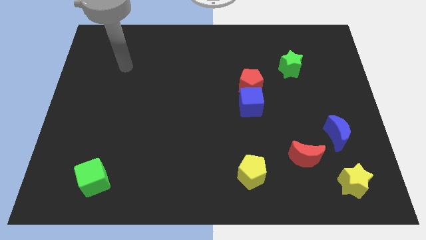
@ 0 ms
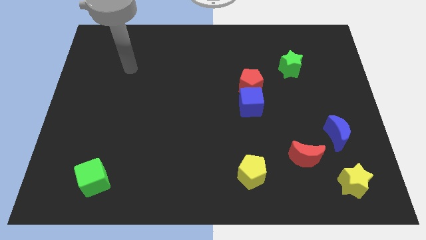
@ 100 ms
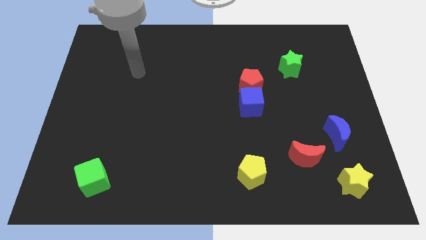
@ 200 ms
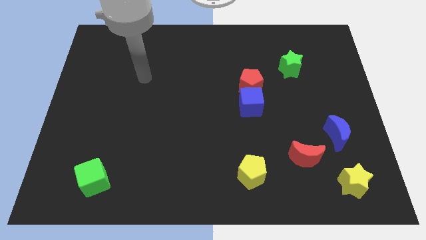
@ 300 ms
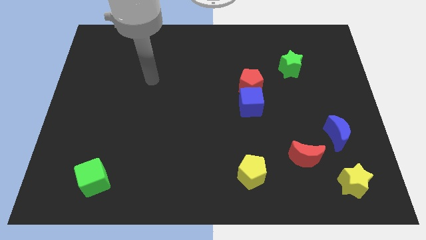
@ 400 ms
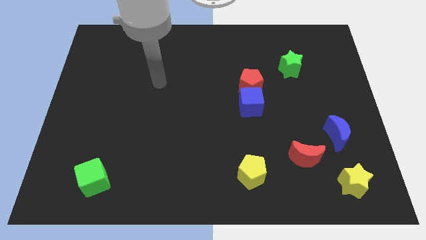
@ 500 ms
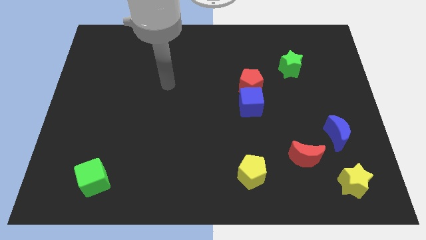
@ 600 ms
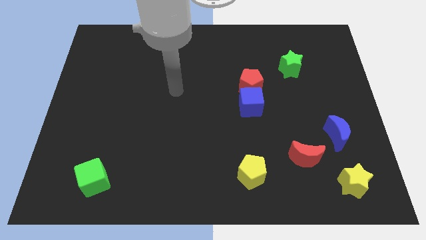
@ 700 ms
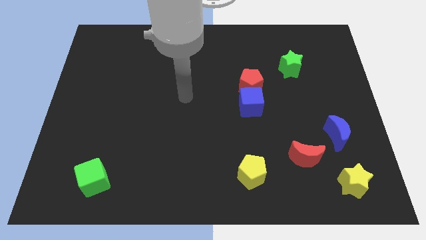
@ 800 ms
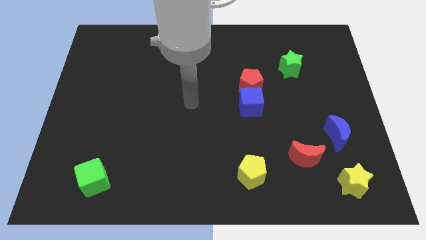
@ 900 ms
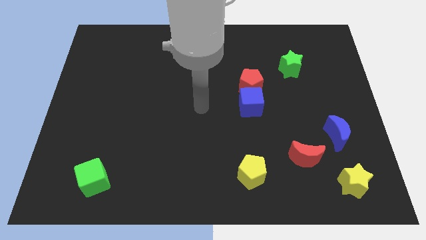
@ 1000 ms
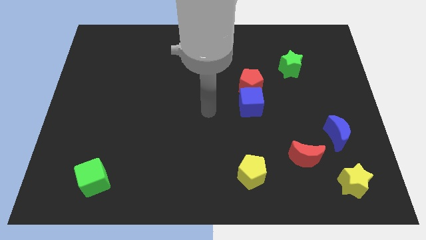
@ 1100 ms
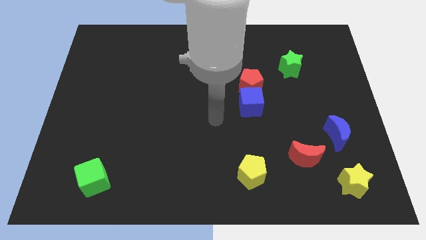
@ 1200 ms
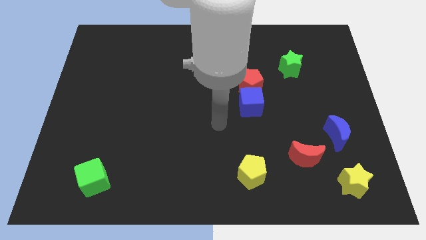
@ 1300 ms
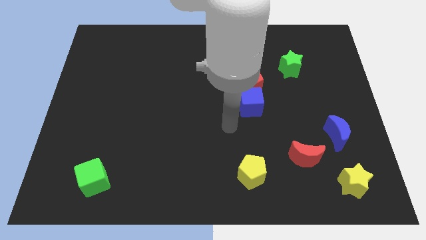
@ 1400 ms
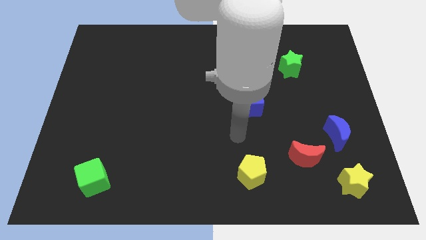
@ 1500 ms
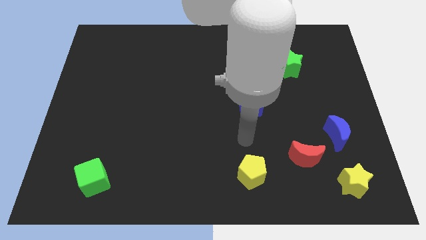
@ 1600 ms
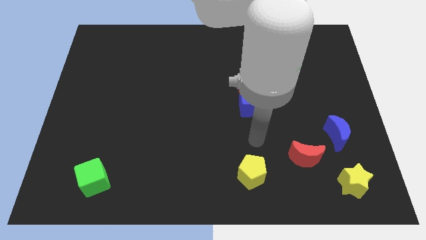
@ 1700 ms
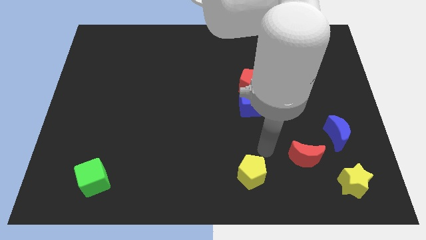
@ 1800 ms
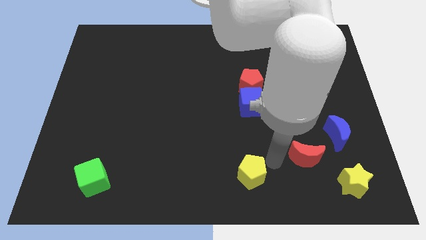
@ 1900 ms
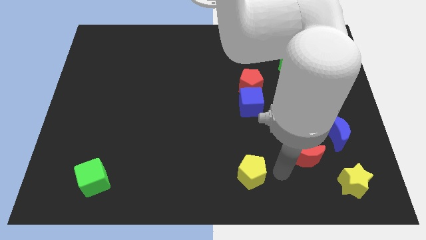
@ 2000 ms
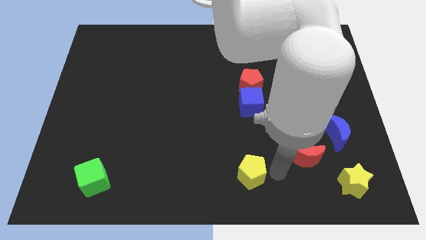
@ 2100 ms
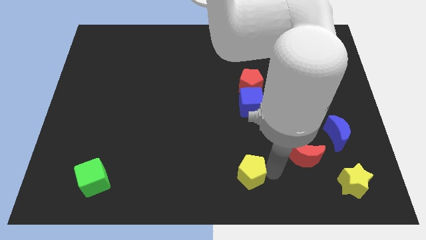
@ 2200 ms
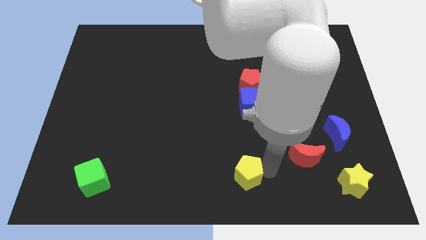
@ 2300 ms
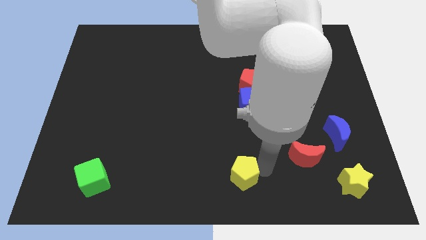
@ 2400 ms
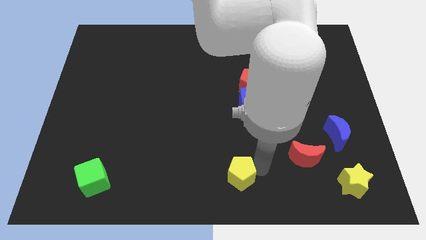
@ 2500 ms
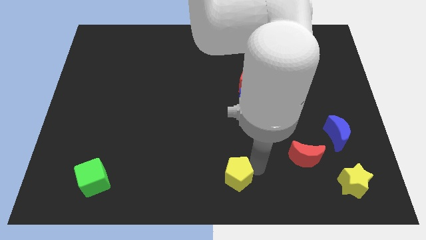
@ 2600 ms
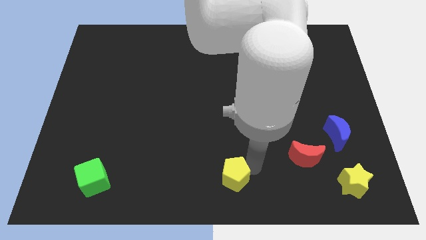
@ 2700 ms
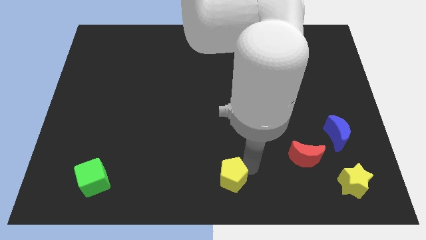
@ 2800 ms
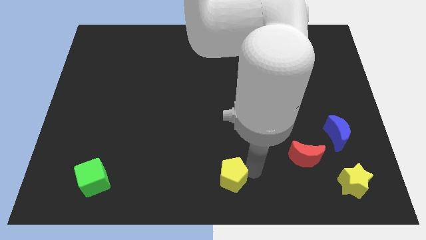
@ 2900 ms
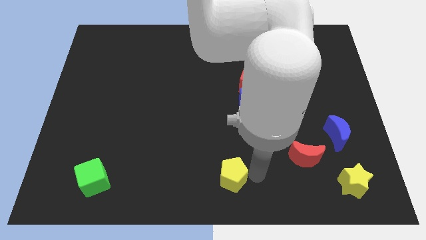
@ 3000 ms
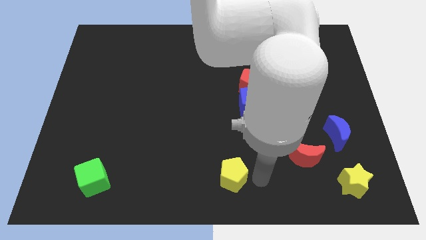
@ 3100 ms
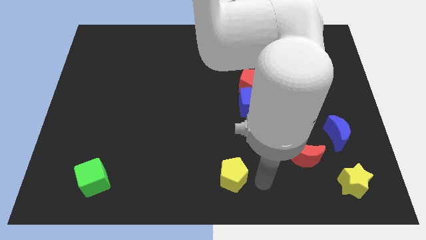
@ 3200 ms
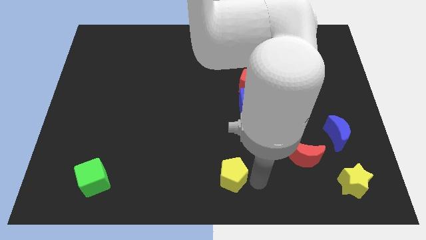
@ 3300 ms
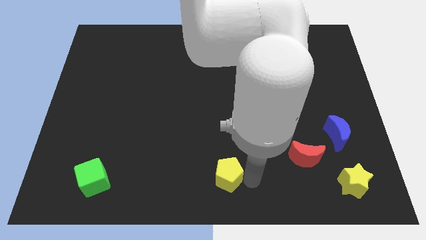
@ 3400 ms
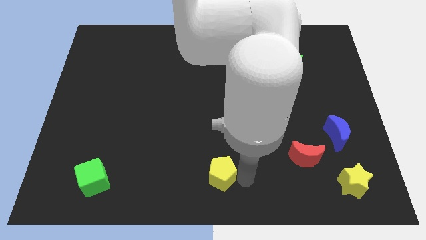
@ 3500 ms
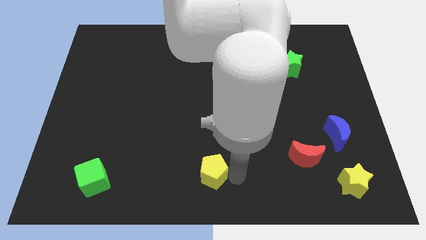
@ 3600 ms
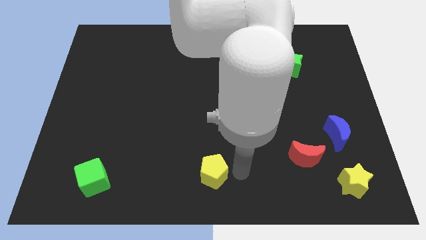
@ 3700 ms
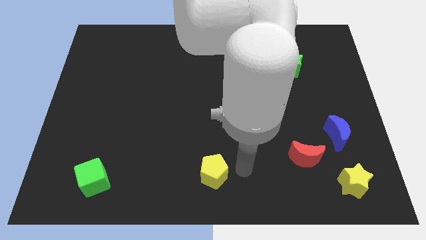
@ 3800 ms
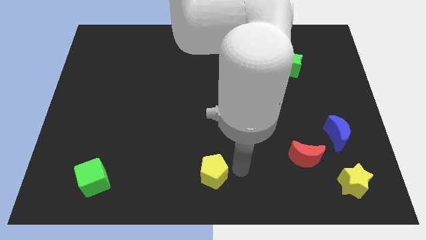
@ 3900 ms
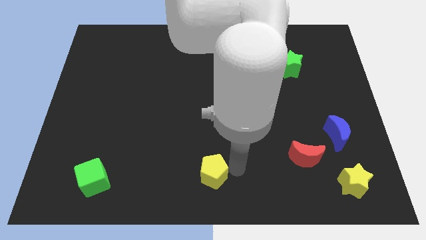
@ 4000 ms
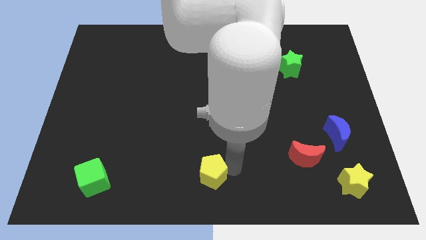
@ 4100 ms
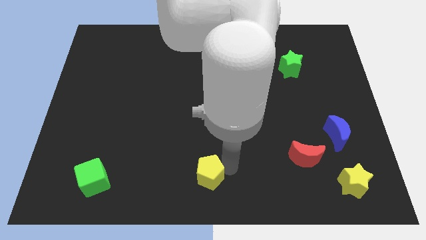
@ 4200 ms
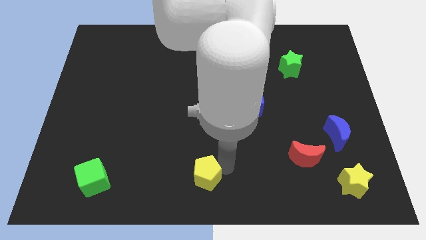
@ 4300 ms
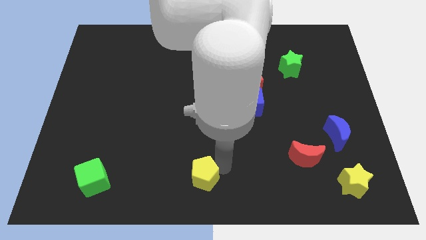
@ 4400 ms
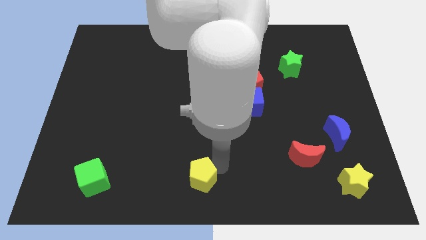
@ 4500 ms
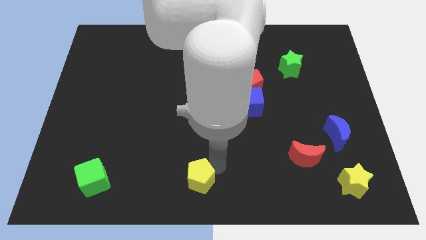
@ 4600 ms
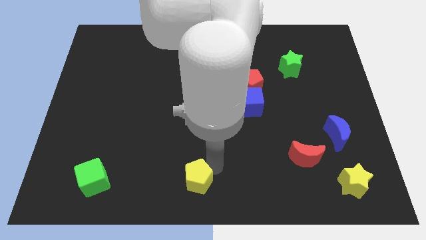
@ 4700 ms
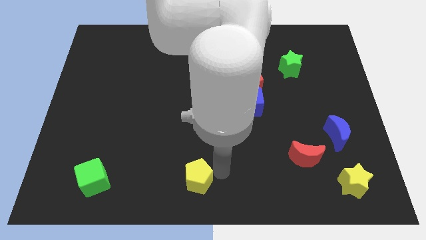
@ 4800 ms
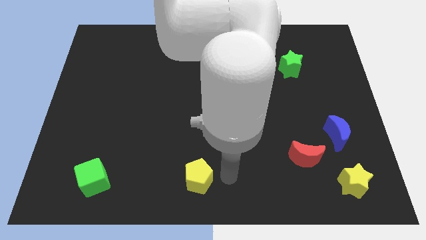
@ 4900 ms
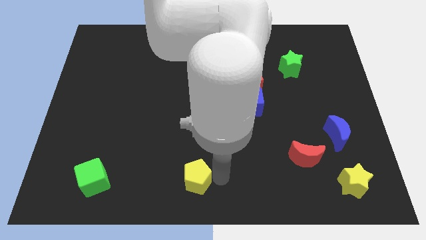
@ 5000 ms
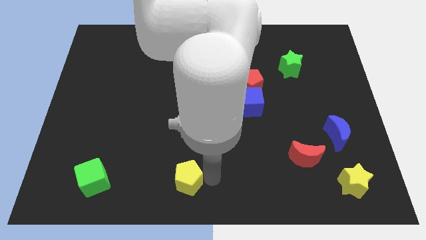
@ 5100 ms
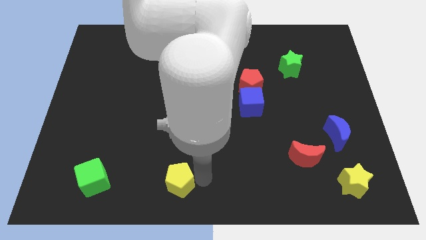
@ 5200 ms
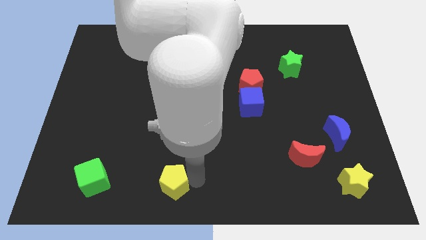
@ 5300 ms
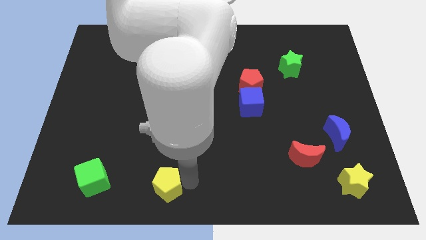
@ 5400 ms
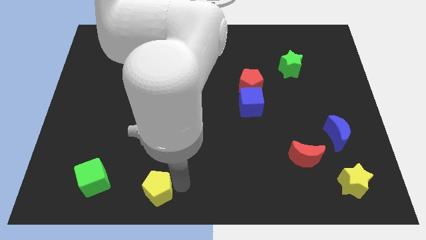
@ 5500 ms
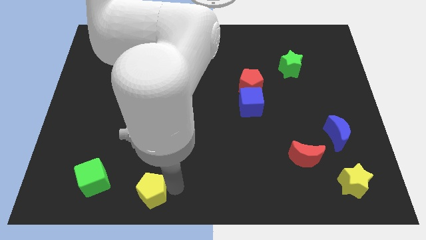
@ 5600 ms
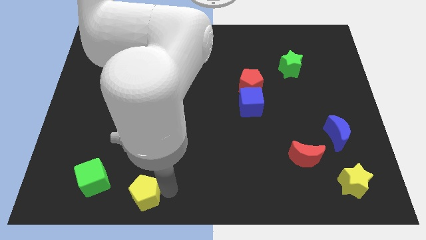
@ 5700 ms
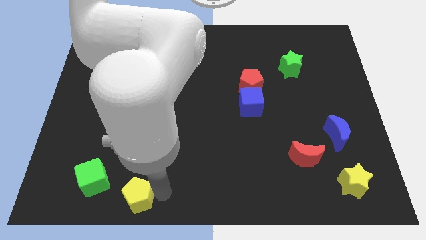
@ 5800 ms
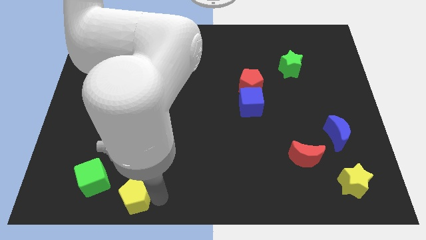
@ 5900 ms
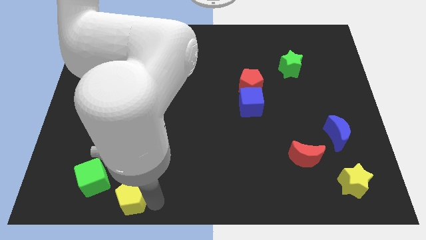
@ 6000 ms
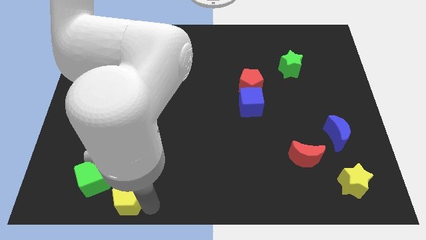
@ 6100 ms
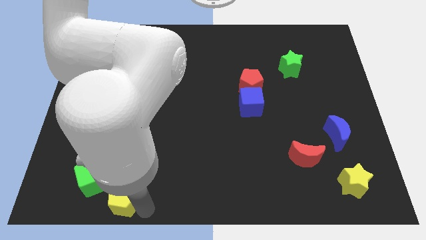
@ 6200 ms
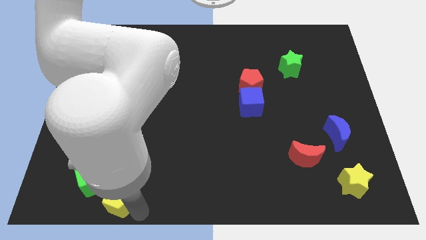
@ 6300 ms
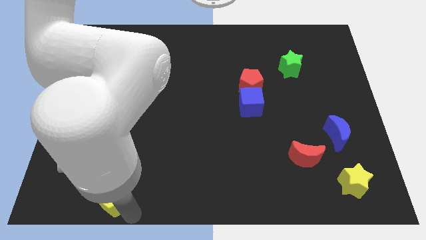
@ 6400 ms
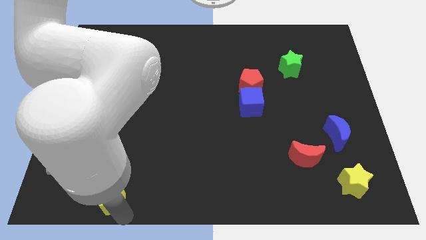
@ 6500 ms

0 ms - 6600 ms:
push the yellow pentagon next to the green cube

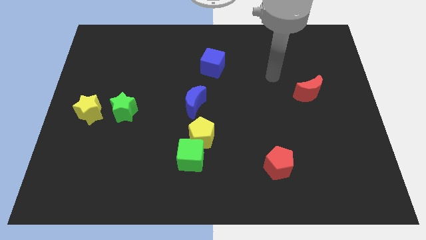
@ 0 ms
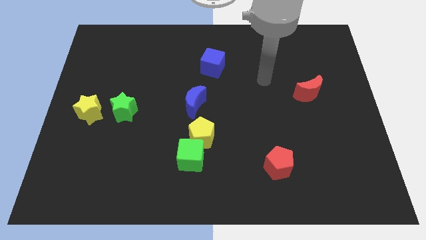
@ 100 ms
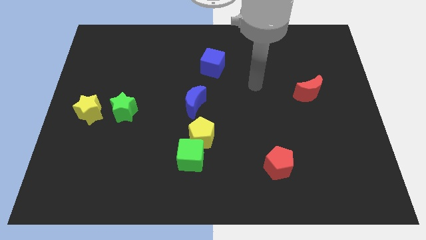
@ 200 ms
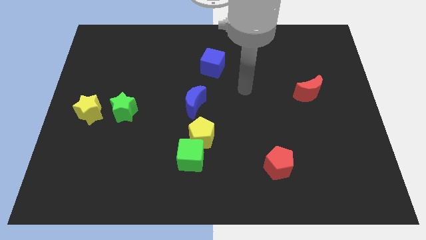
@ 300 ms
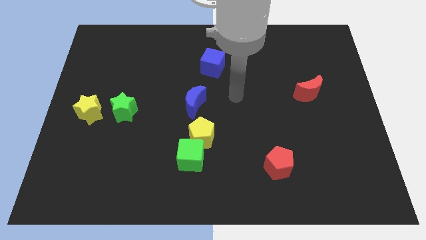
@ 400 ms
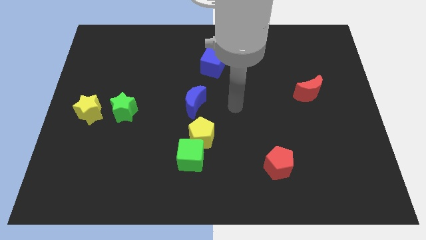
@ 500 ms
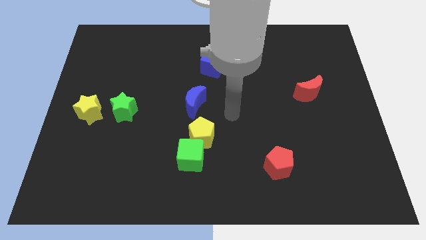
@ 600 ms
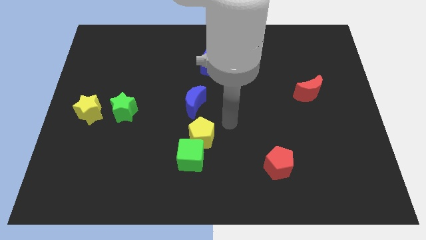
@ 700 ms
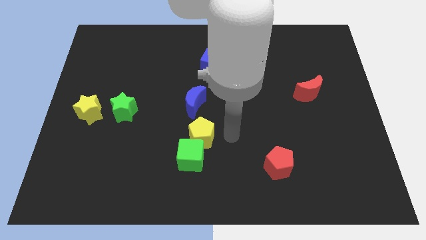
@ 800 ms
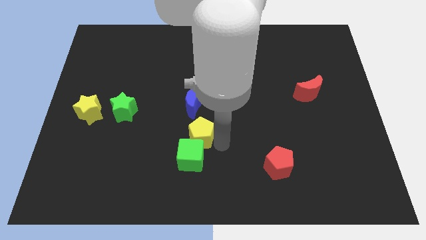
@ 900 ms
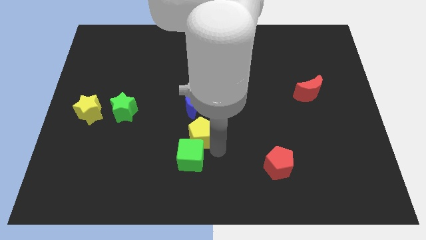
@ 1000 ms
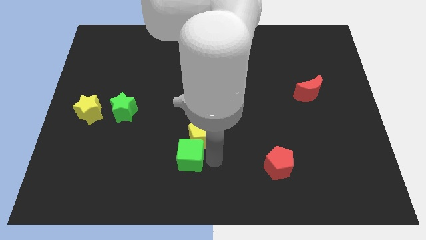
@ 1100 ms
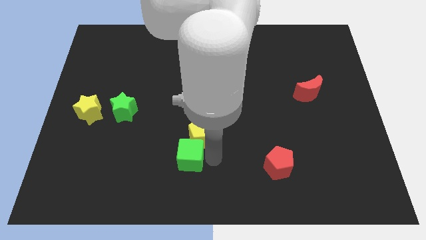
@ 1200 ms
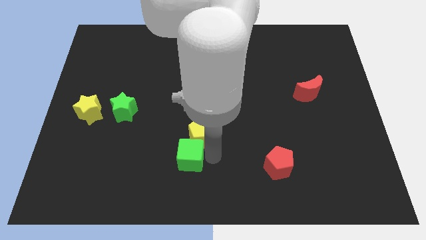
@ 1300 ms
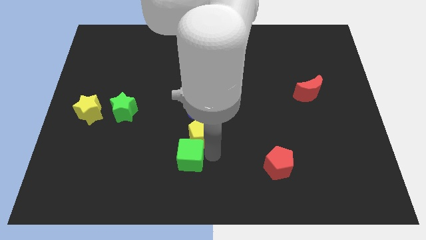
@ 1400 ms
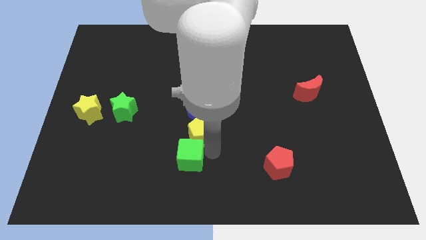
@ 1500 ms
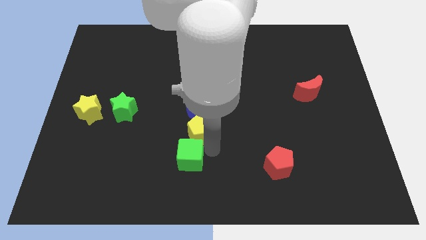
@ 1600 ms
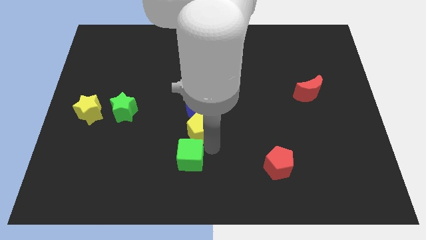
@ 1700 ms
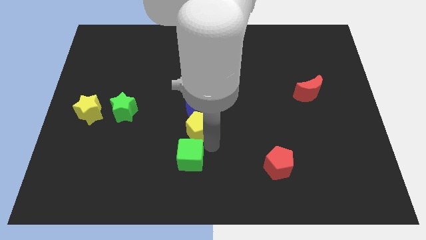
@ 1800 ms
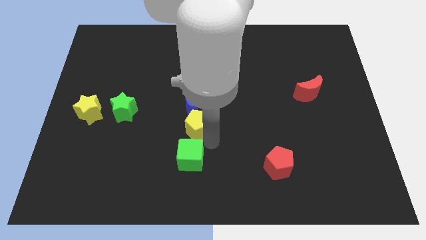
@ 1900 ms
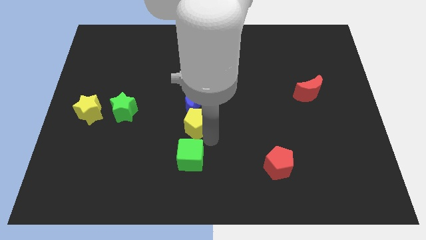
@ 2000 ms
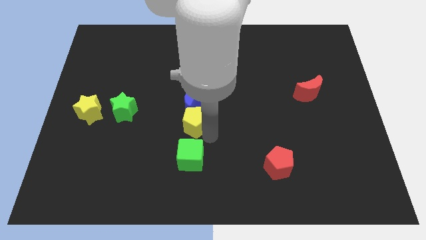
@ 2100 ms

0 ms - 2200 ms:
move the yellow pentagon towards the blue moon
